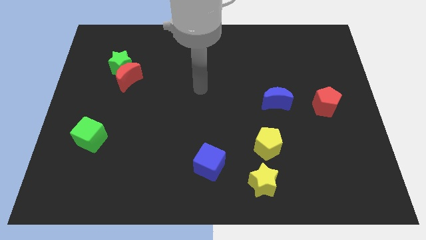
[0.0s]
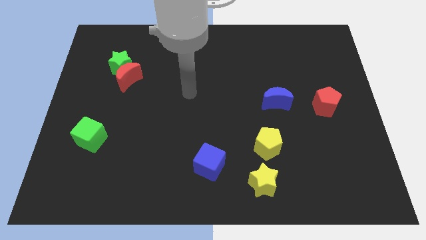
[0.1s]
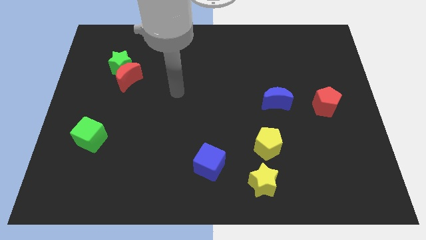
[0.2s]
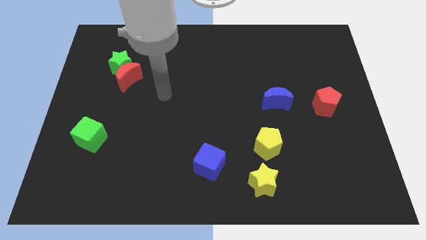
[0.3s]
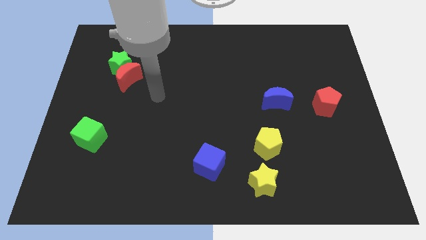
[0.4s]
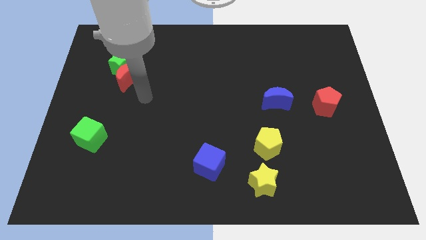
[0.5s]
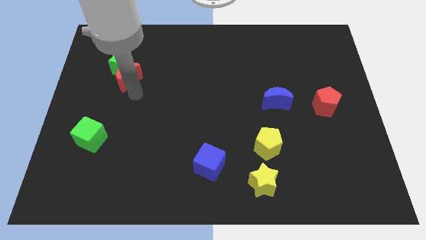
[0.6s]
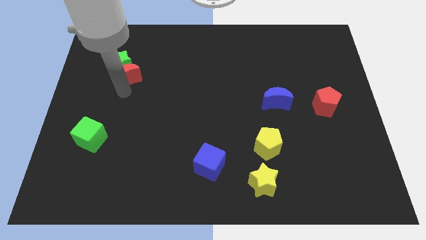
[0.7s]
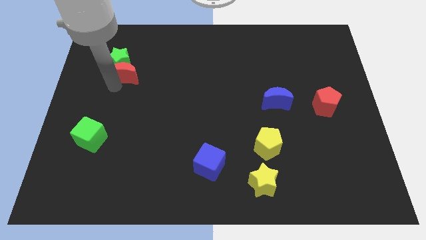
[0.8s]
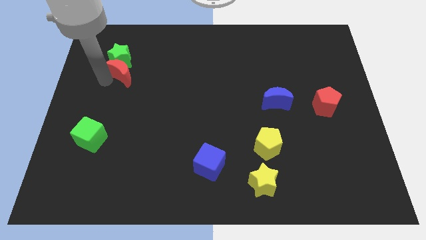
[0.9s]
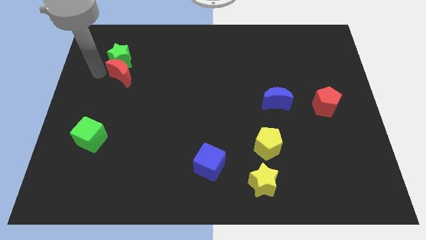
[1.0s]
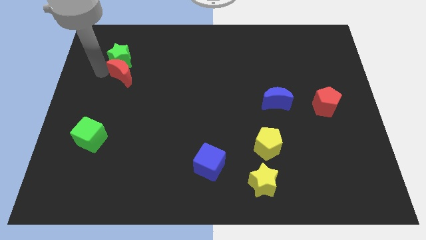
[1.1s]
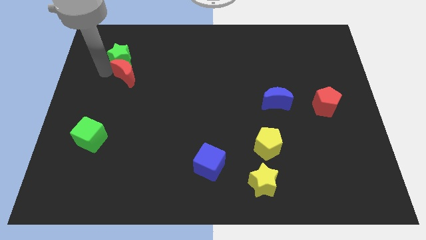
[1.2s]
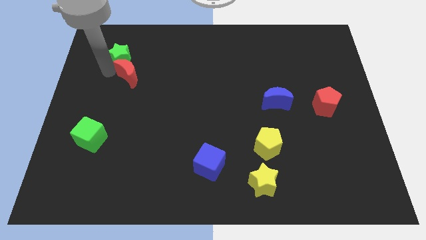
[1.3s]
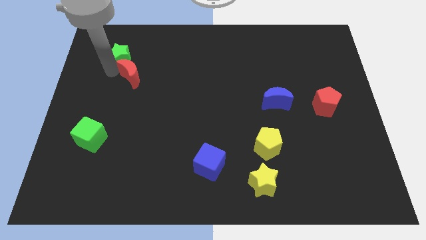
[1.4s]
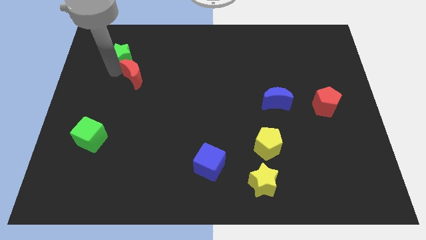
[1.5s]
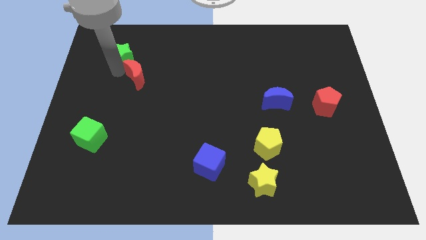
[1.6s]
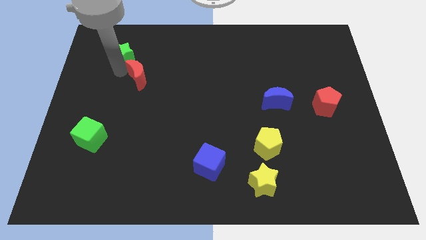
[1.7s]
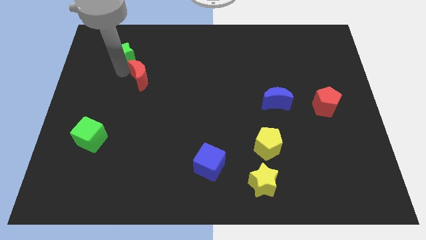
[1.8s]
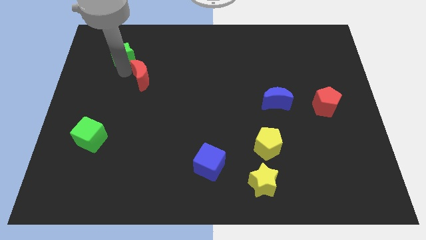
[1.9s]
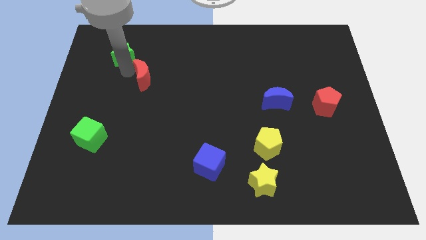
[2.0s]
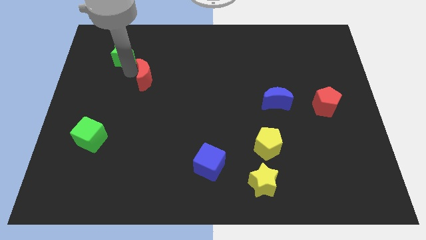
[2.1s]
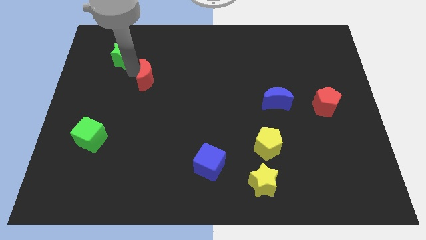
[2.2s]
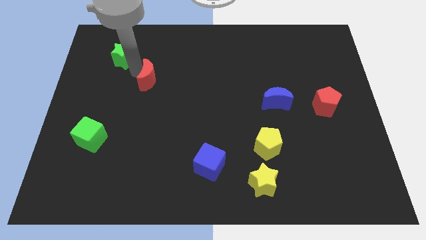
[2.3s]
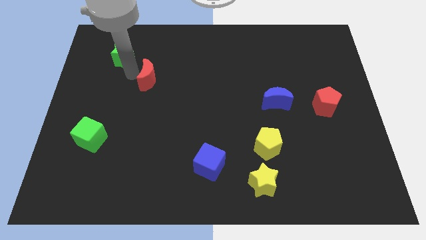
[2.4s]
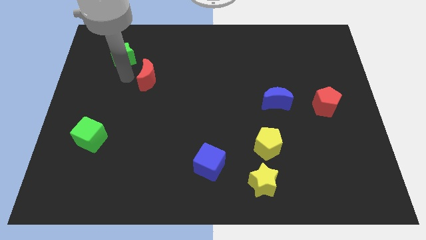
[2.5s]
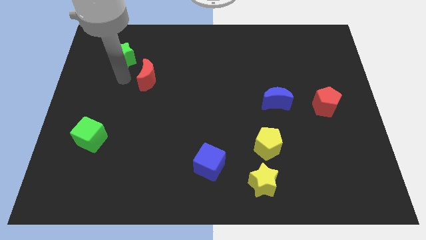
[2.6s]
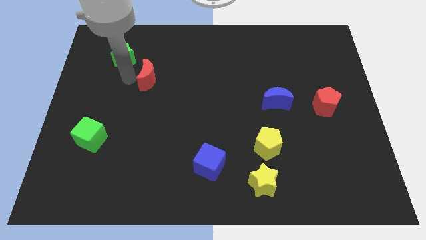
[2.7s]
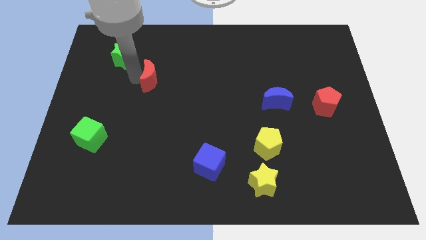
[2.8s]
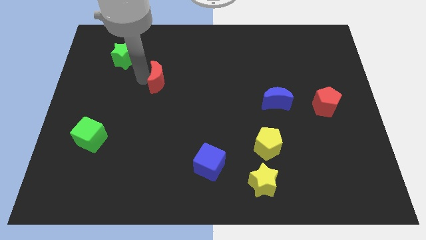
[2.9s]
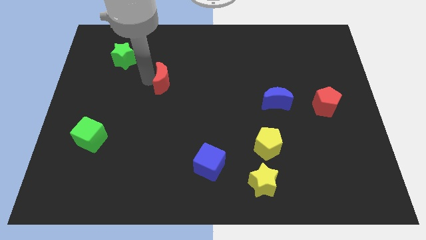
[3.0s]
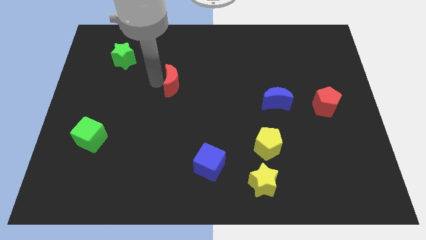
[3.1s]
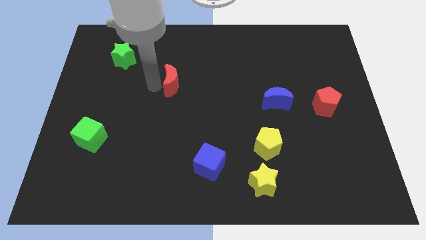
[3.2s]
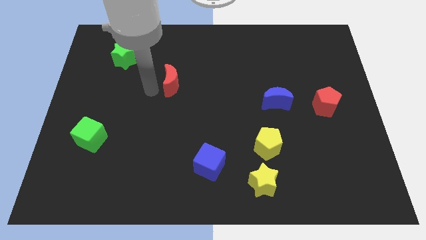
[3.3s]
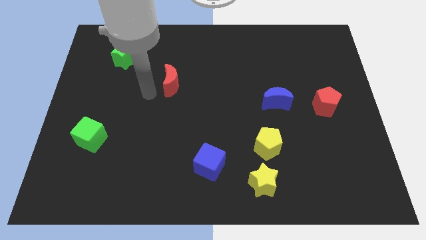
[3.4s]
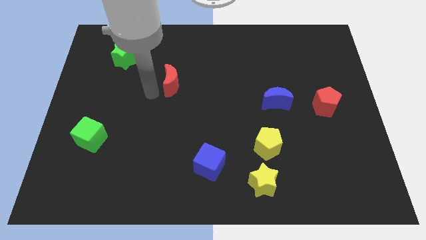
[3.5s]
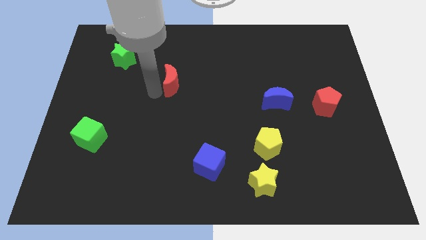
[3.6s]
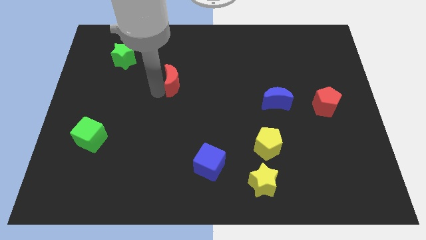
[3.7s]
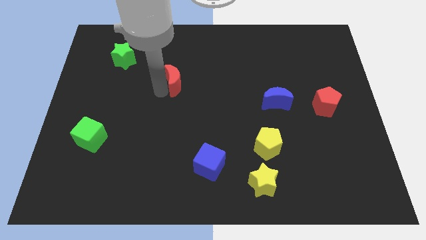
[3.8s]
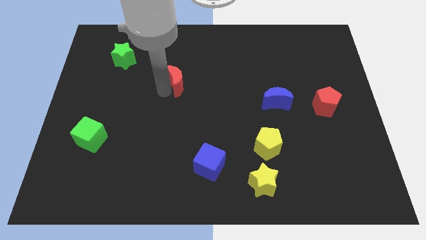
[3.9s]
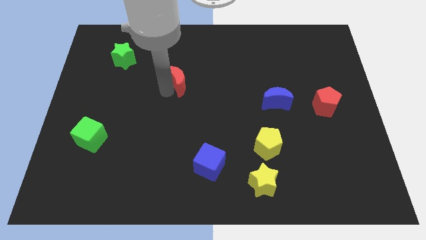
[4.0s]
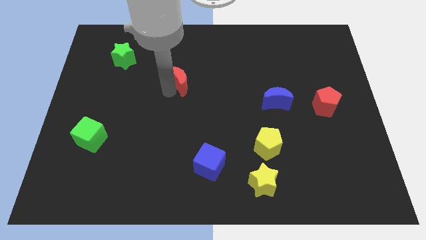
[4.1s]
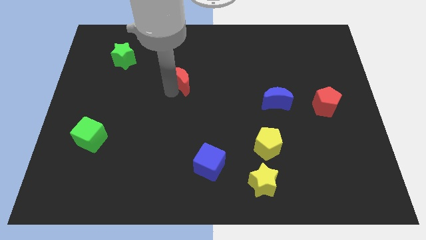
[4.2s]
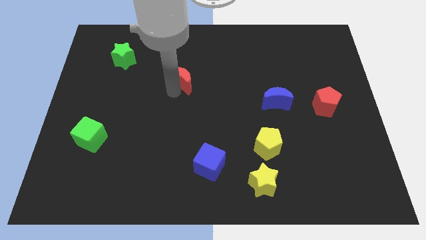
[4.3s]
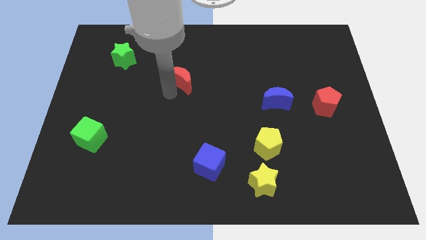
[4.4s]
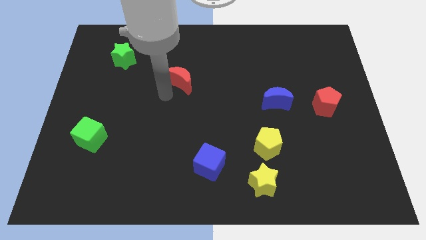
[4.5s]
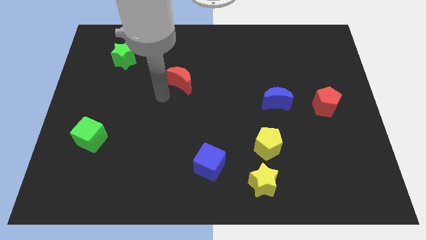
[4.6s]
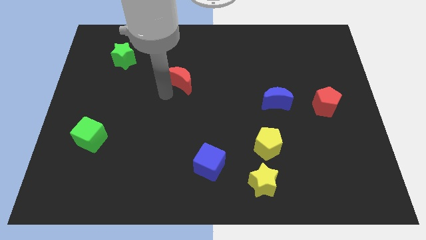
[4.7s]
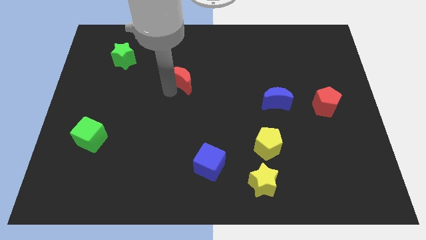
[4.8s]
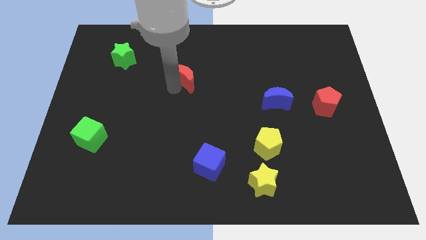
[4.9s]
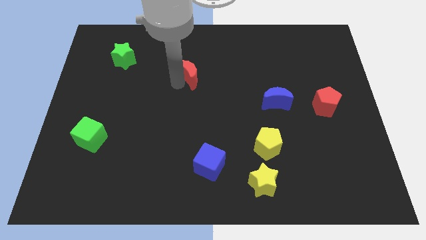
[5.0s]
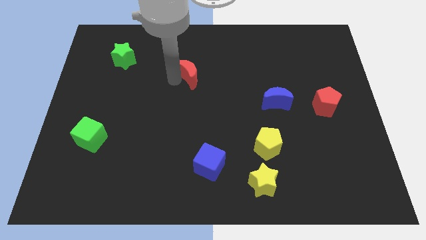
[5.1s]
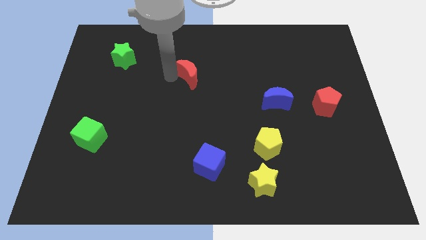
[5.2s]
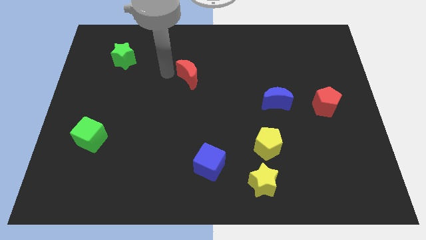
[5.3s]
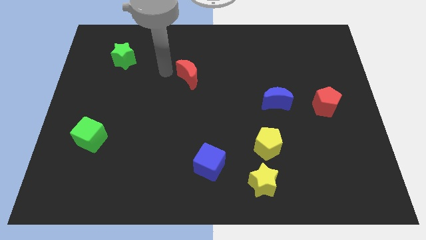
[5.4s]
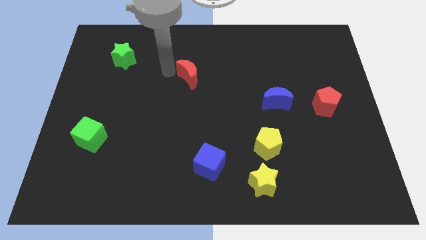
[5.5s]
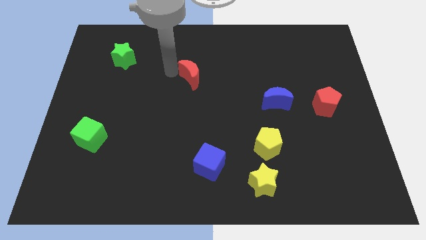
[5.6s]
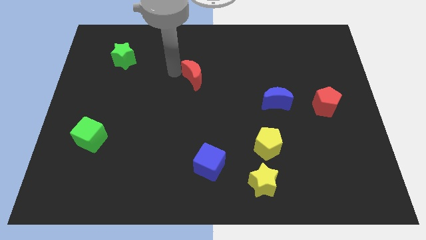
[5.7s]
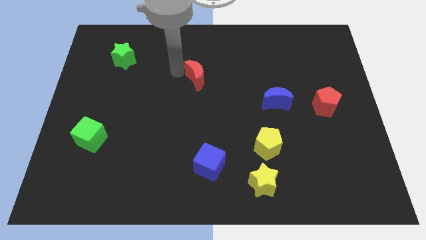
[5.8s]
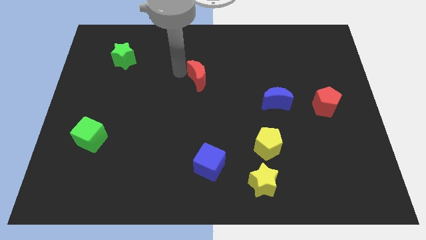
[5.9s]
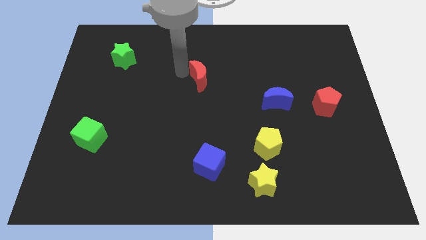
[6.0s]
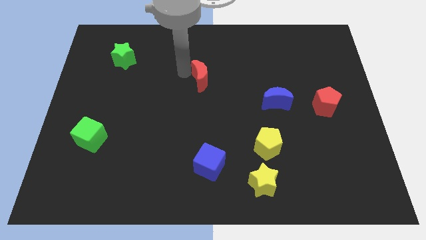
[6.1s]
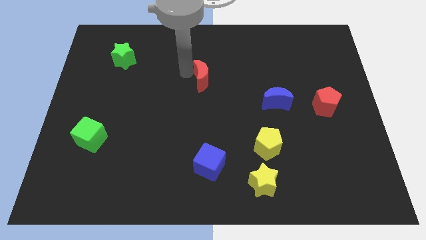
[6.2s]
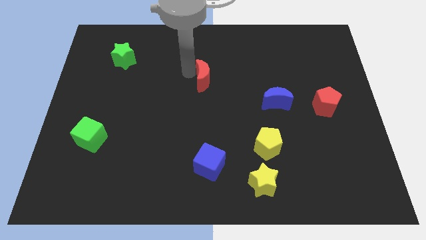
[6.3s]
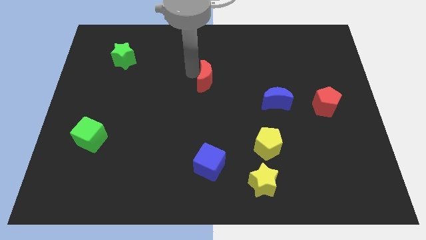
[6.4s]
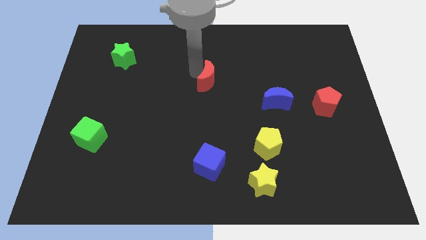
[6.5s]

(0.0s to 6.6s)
slide the red moon to the right

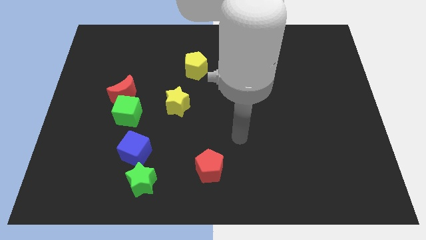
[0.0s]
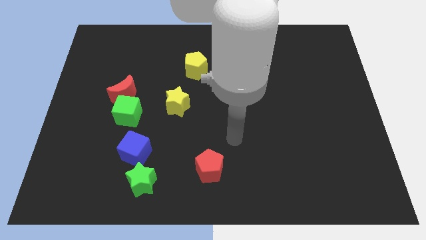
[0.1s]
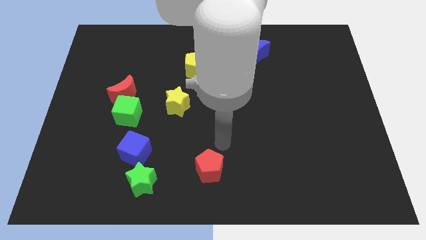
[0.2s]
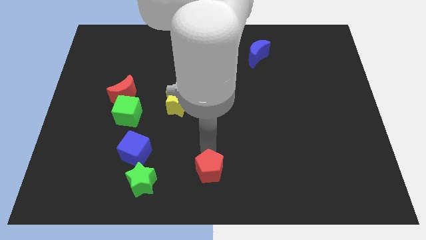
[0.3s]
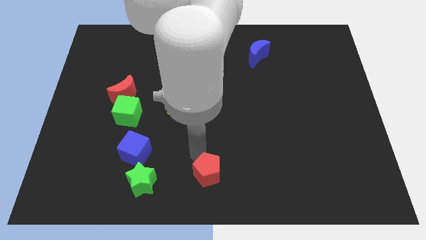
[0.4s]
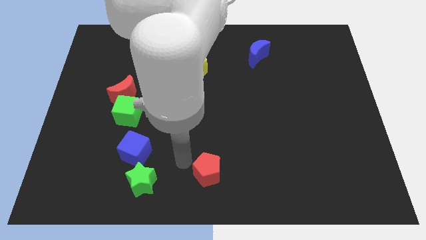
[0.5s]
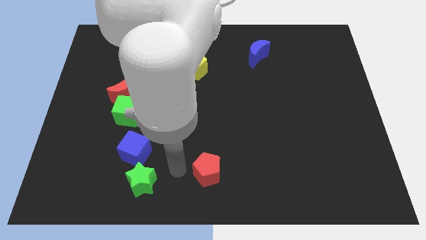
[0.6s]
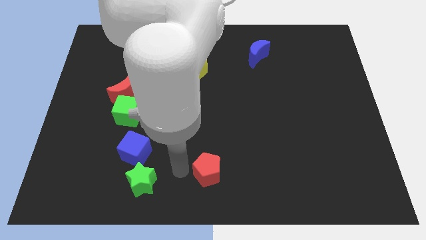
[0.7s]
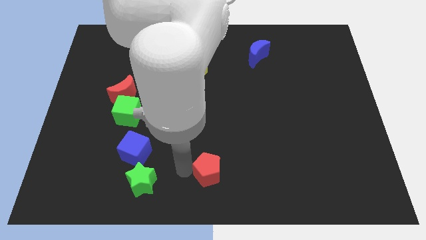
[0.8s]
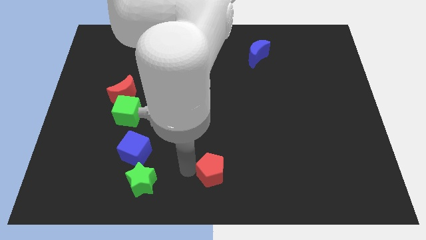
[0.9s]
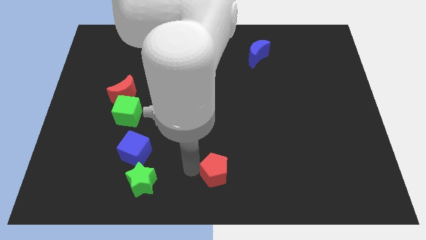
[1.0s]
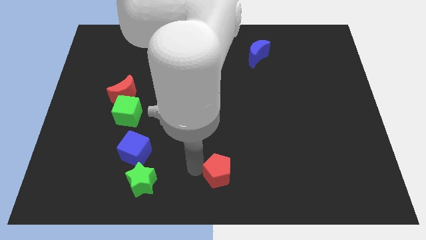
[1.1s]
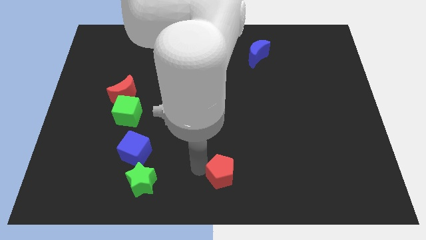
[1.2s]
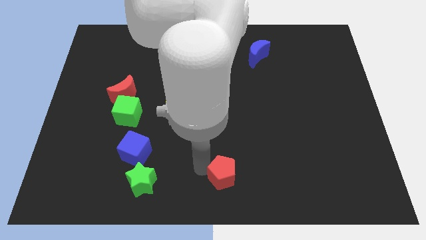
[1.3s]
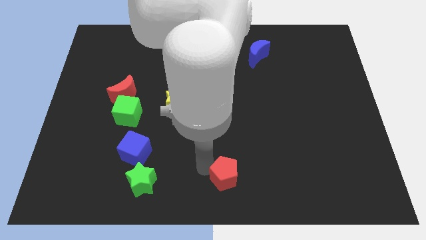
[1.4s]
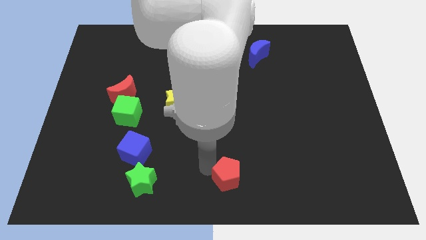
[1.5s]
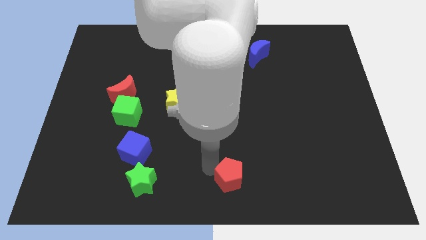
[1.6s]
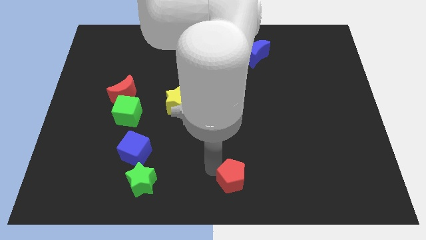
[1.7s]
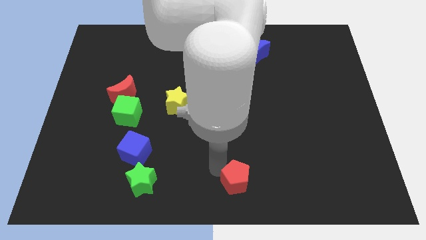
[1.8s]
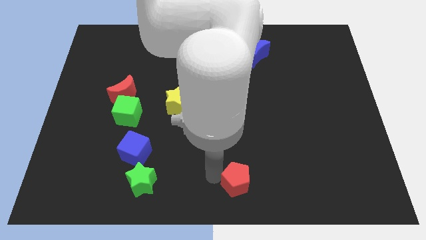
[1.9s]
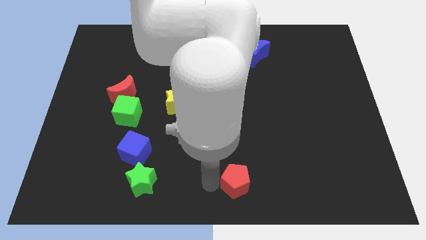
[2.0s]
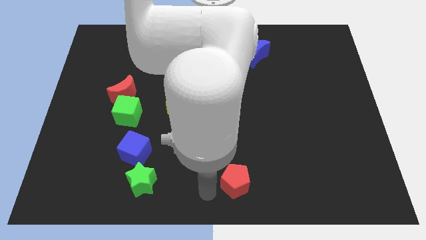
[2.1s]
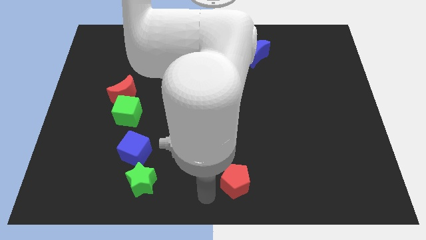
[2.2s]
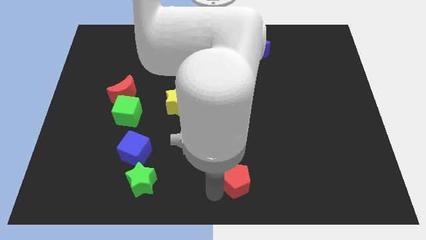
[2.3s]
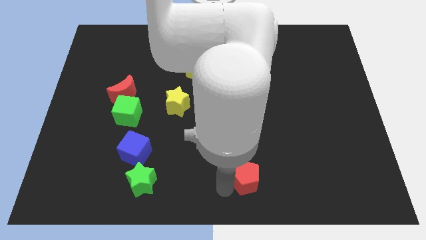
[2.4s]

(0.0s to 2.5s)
slightly slide the red pentagon to the right
